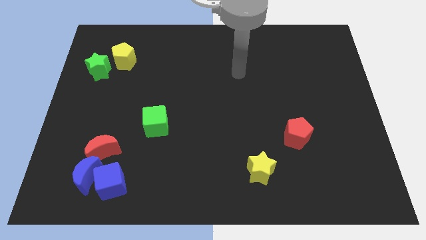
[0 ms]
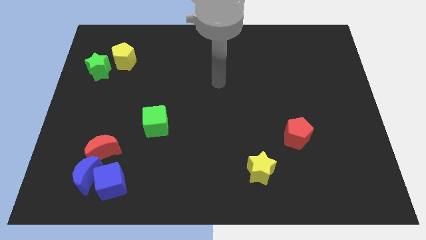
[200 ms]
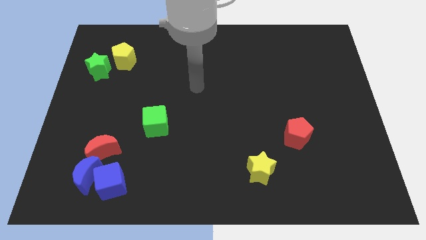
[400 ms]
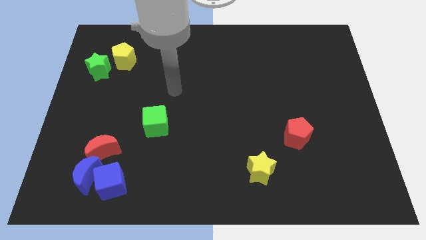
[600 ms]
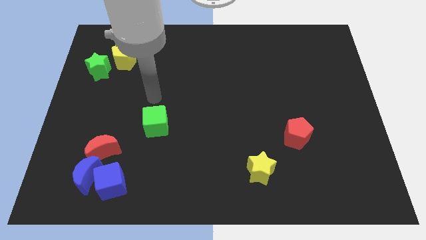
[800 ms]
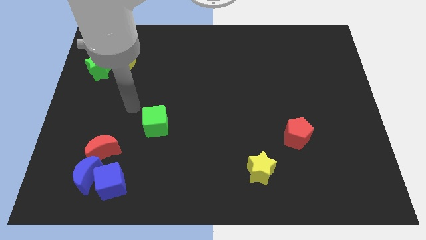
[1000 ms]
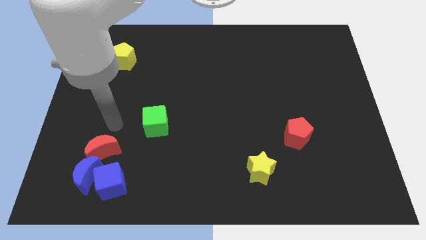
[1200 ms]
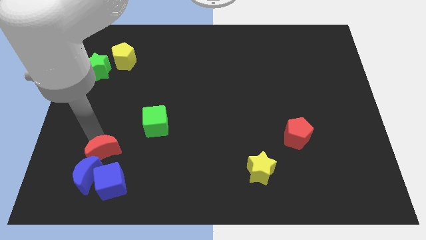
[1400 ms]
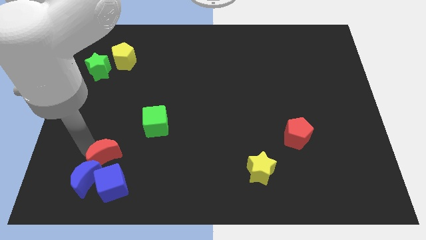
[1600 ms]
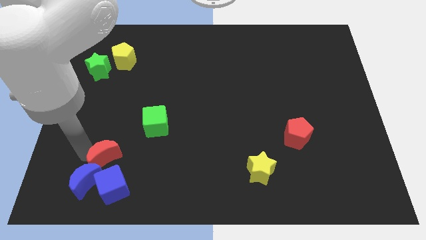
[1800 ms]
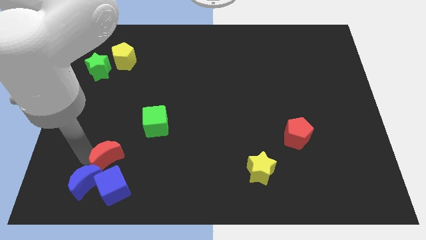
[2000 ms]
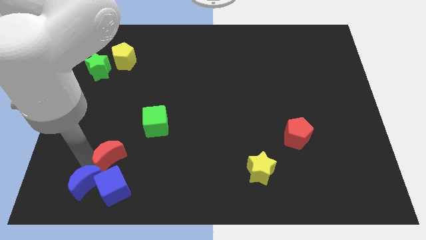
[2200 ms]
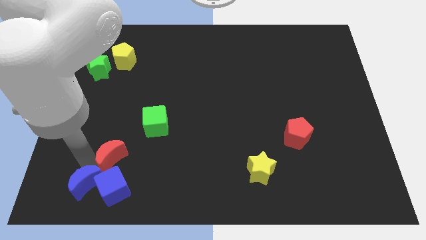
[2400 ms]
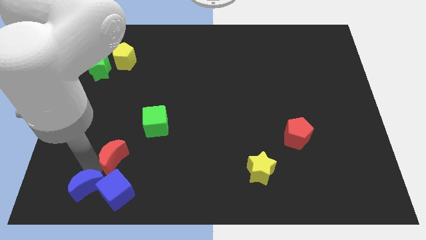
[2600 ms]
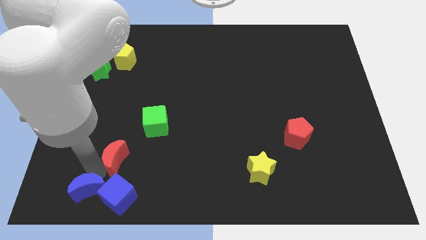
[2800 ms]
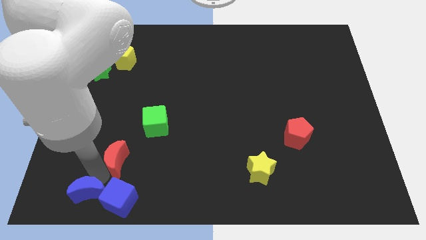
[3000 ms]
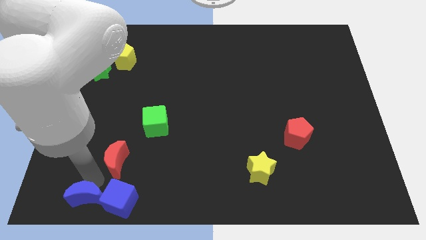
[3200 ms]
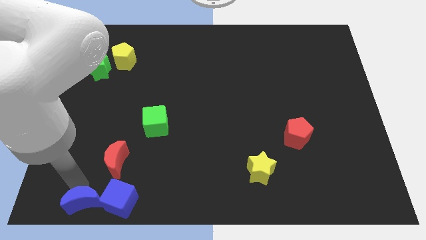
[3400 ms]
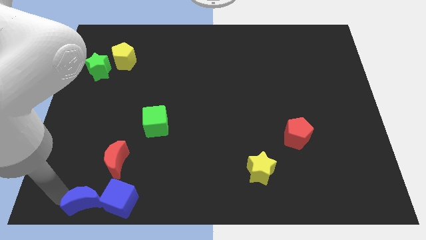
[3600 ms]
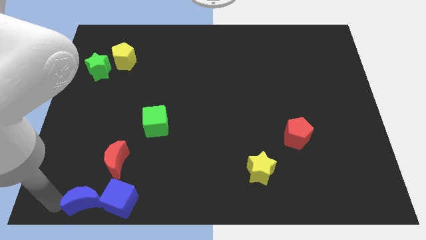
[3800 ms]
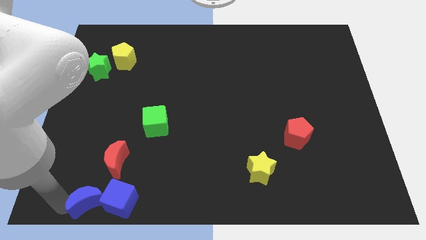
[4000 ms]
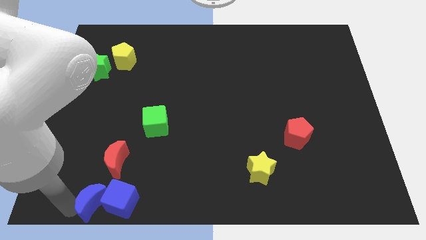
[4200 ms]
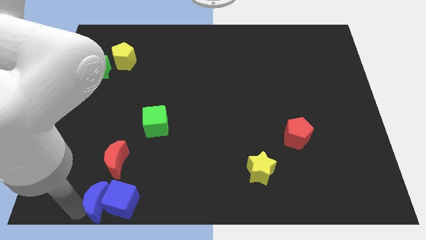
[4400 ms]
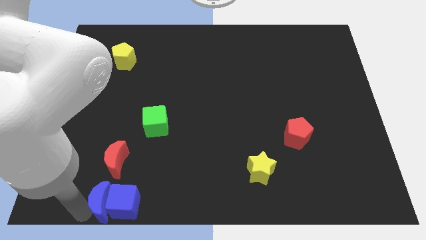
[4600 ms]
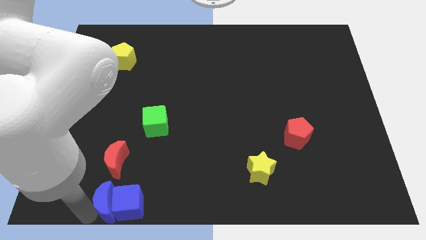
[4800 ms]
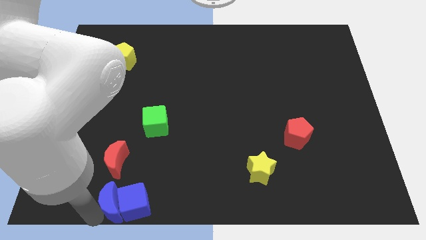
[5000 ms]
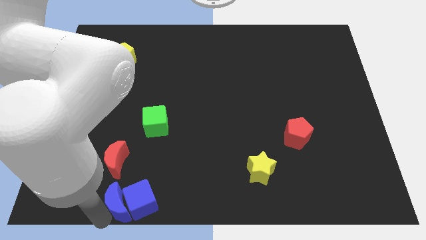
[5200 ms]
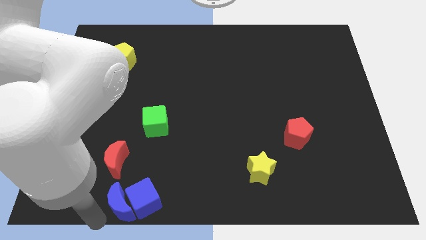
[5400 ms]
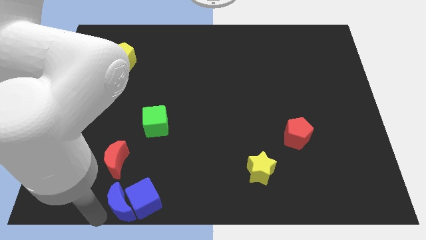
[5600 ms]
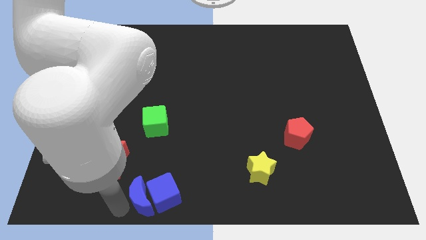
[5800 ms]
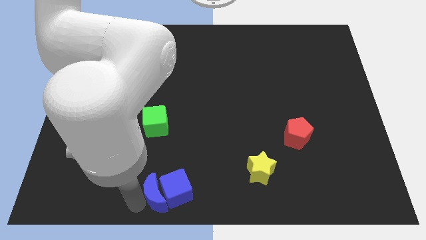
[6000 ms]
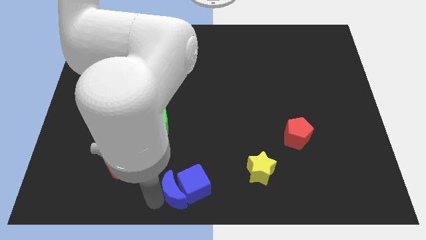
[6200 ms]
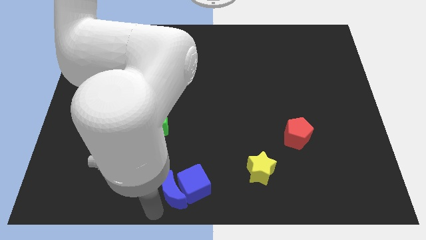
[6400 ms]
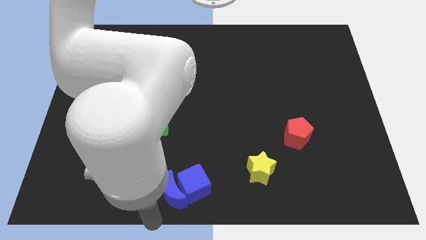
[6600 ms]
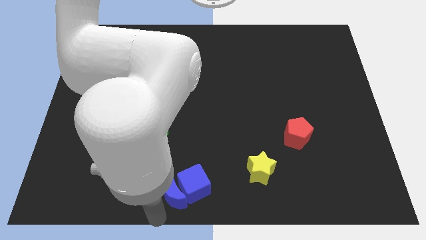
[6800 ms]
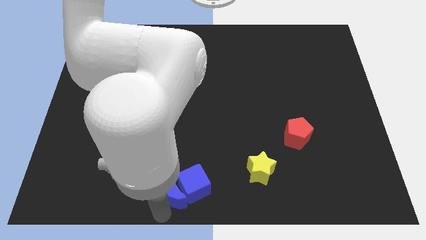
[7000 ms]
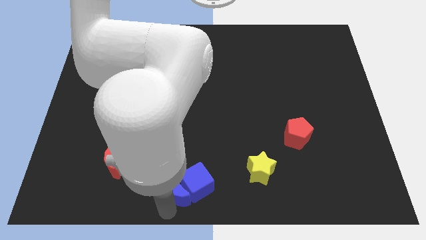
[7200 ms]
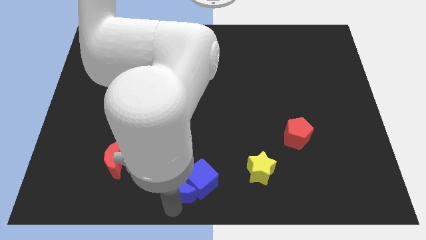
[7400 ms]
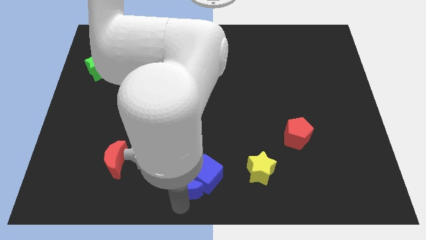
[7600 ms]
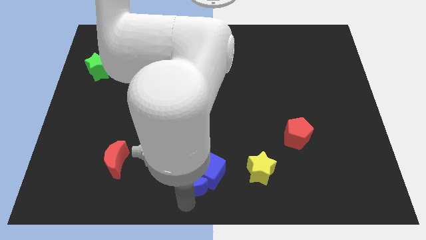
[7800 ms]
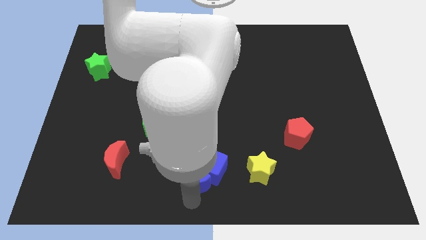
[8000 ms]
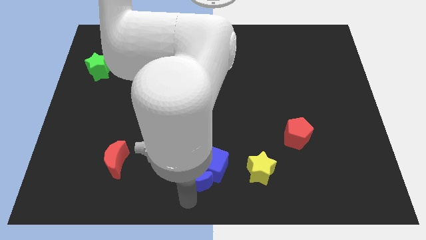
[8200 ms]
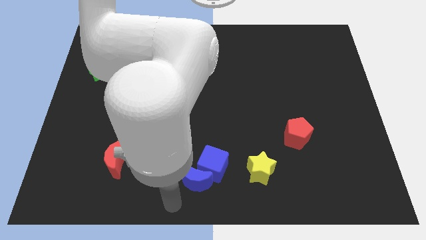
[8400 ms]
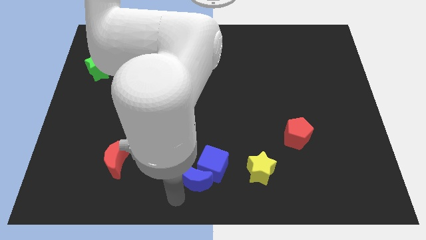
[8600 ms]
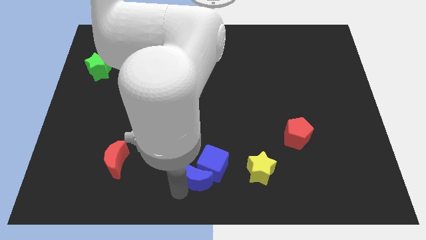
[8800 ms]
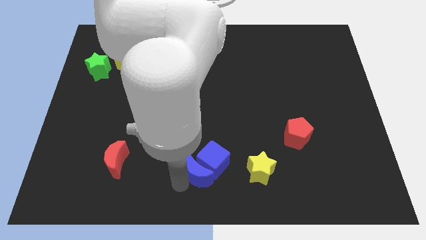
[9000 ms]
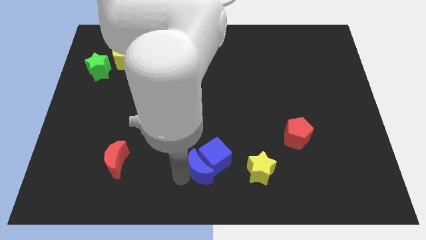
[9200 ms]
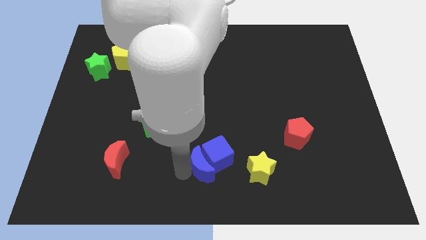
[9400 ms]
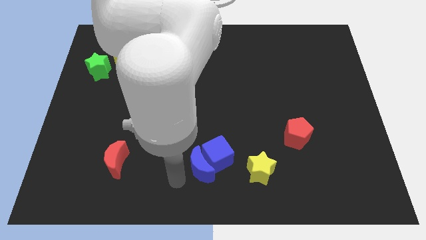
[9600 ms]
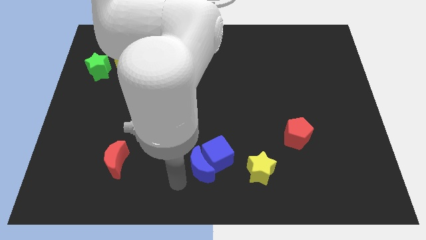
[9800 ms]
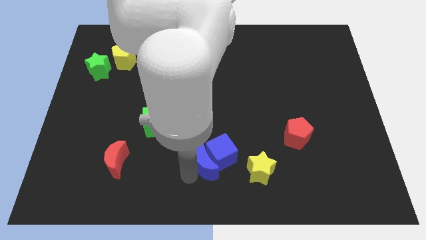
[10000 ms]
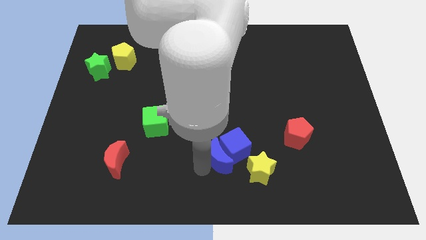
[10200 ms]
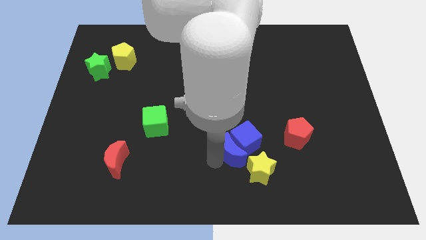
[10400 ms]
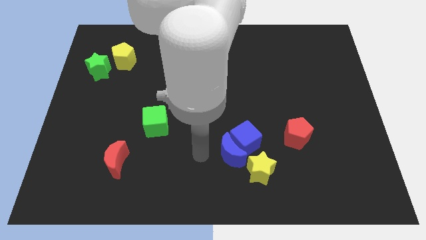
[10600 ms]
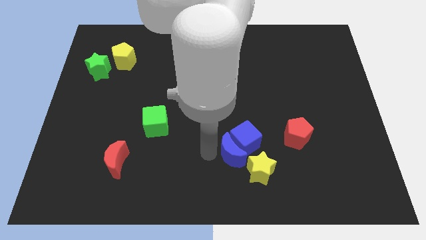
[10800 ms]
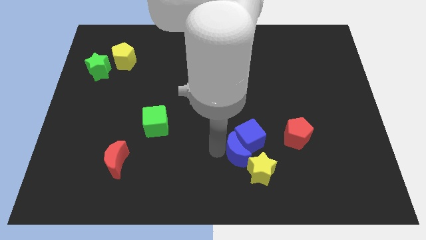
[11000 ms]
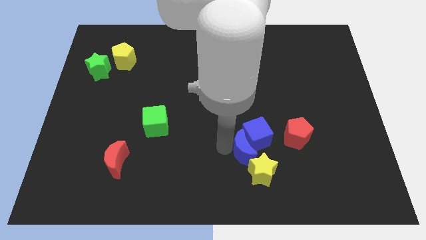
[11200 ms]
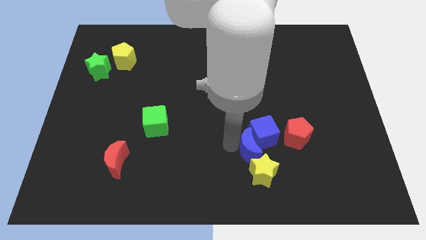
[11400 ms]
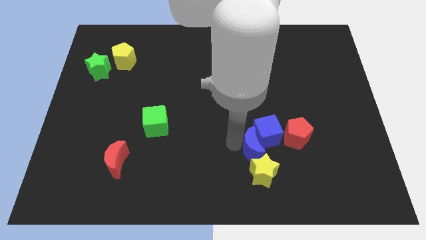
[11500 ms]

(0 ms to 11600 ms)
slide the blue moon to the bottom left side of the red pentagon

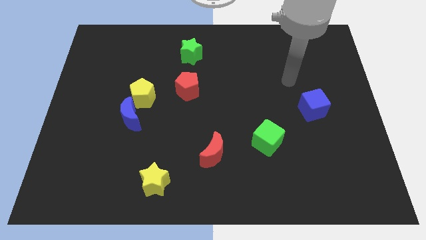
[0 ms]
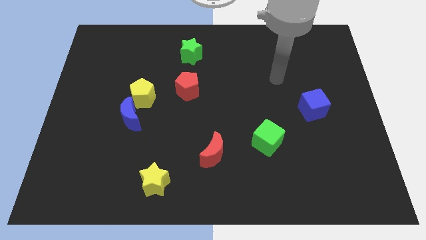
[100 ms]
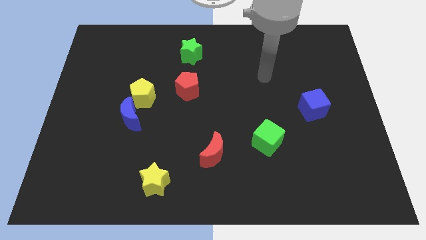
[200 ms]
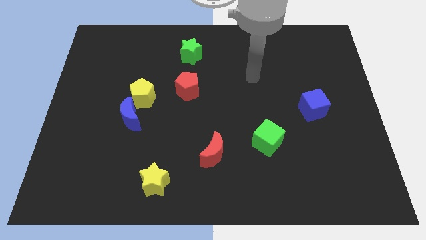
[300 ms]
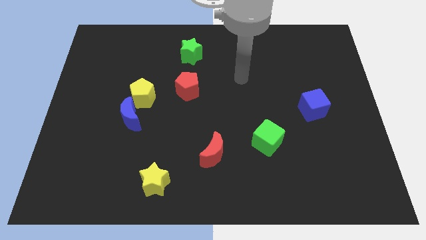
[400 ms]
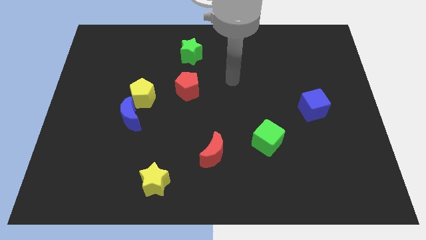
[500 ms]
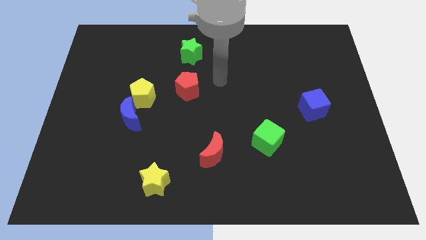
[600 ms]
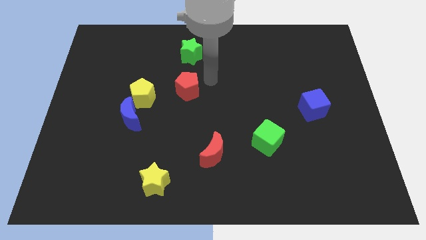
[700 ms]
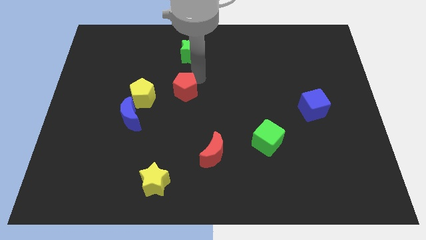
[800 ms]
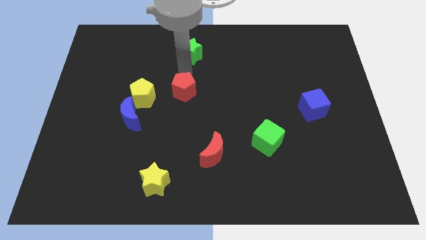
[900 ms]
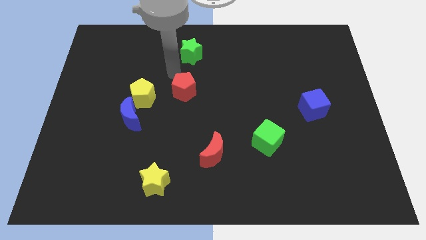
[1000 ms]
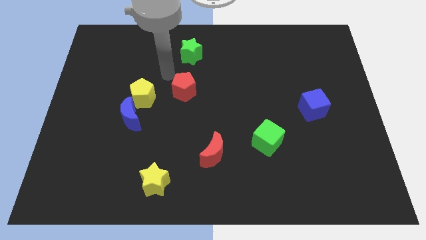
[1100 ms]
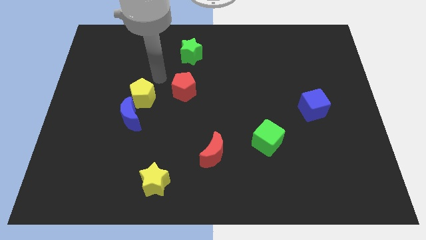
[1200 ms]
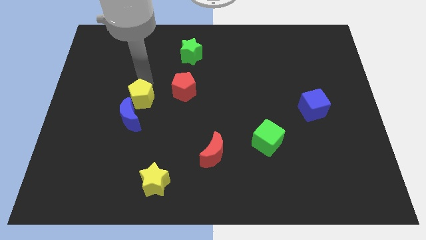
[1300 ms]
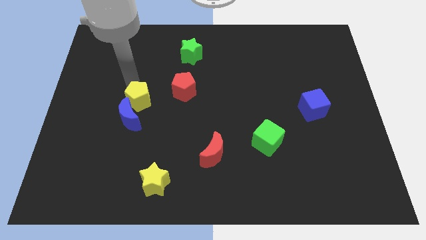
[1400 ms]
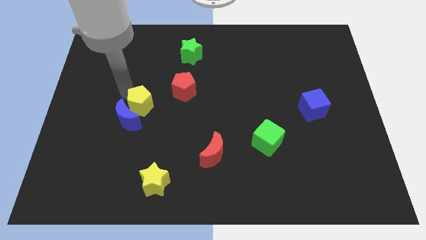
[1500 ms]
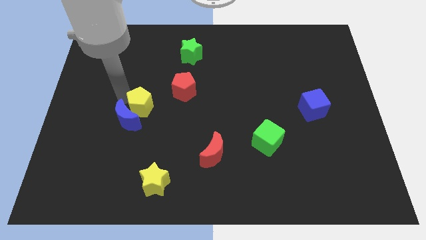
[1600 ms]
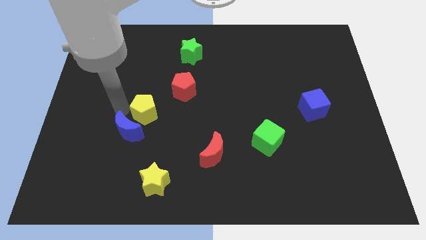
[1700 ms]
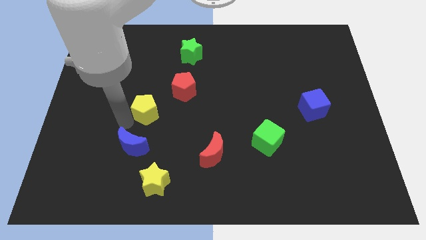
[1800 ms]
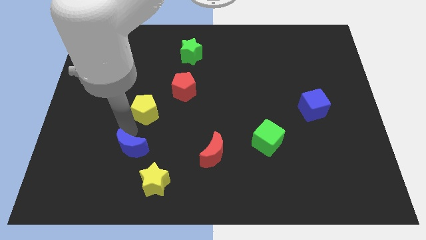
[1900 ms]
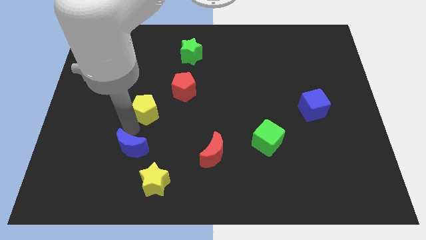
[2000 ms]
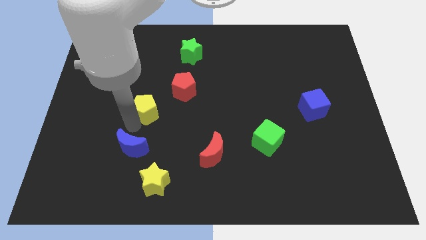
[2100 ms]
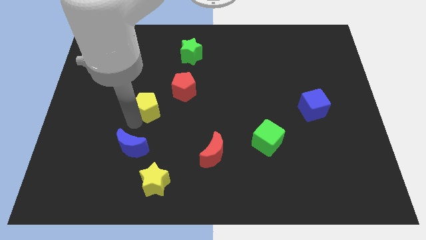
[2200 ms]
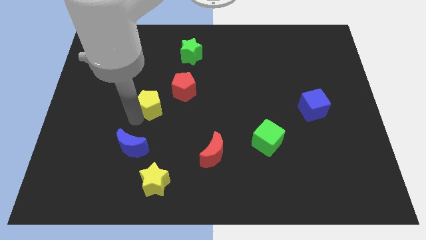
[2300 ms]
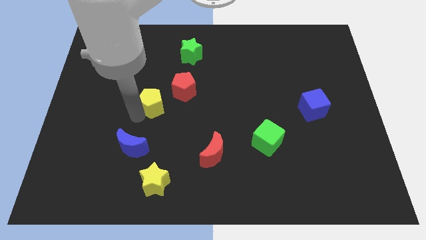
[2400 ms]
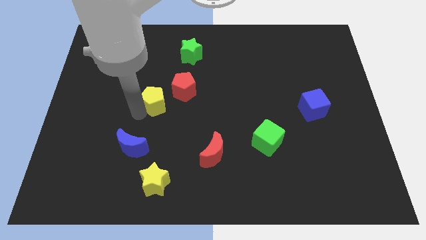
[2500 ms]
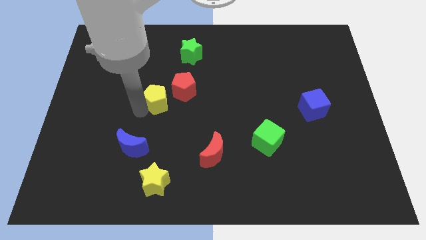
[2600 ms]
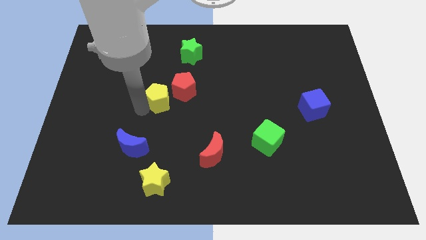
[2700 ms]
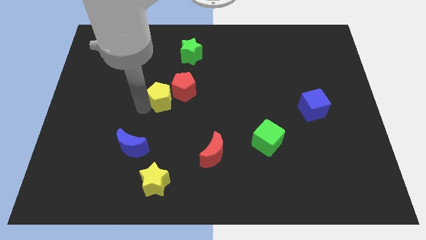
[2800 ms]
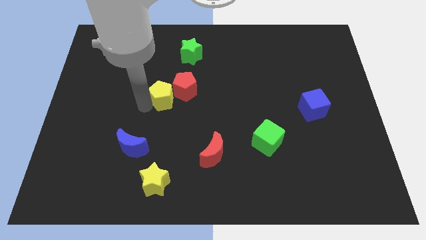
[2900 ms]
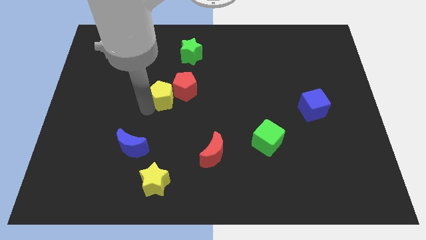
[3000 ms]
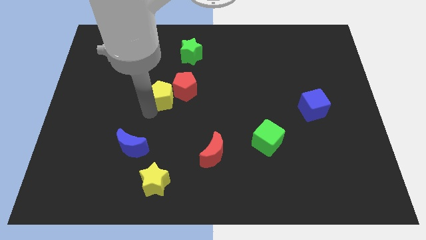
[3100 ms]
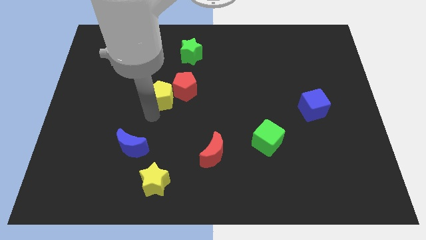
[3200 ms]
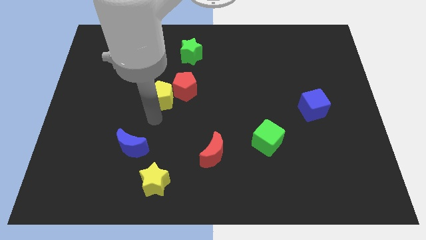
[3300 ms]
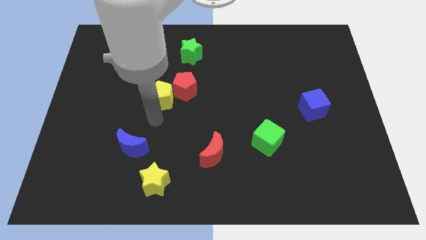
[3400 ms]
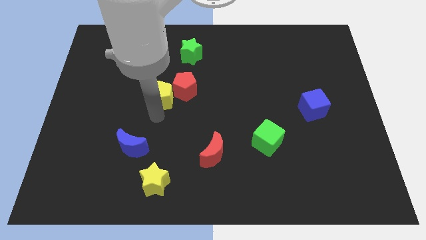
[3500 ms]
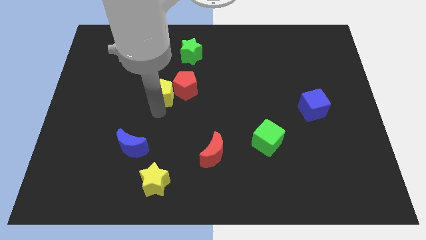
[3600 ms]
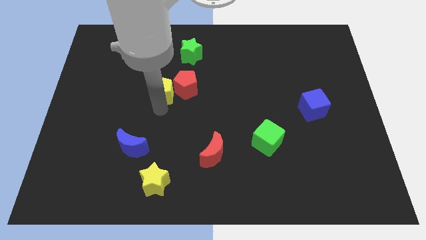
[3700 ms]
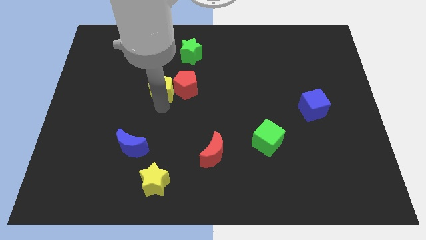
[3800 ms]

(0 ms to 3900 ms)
push the yellow pentagon diagonally up and to the left of the red pentagon
